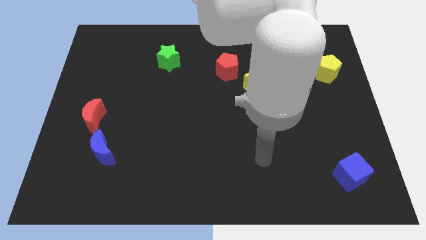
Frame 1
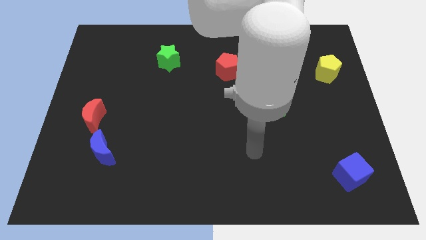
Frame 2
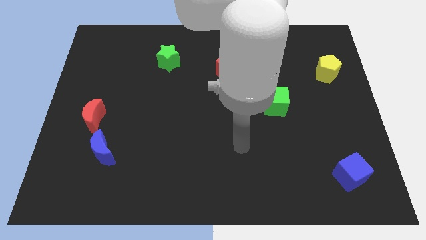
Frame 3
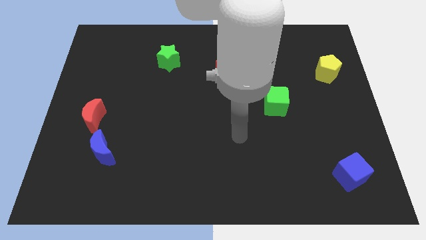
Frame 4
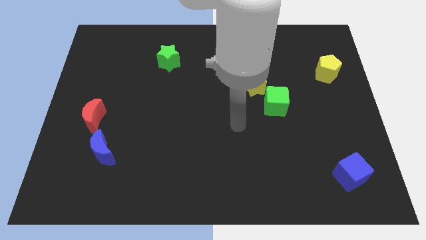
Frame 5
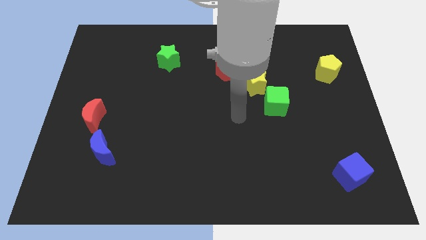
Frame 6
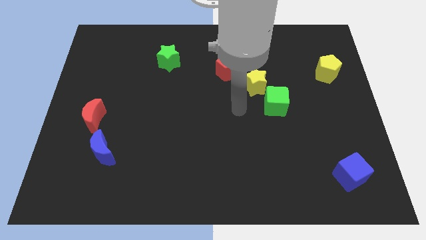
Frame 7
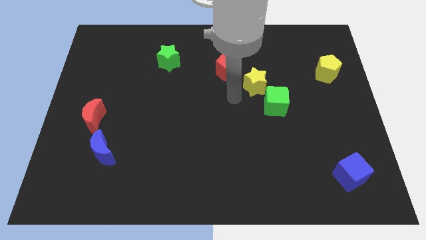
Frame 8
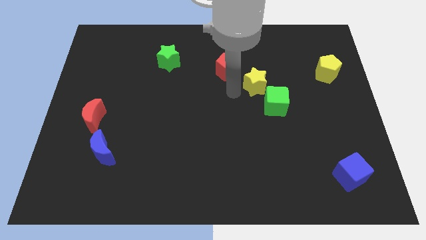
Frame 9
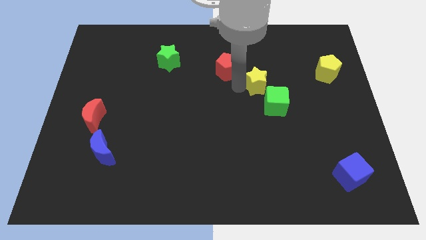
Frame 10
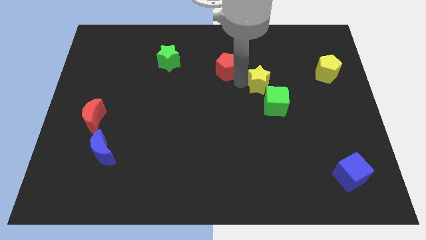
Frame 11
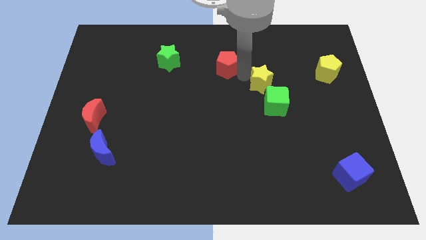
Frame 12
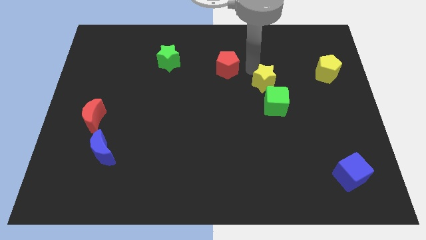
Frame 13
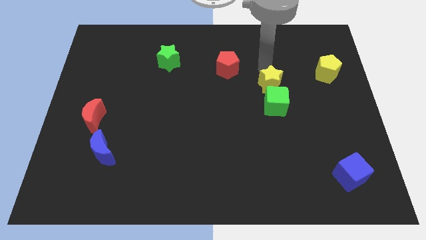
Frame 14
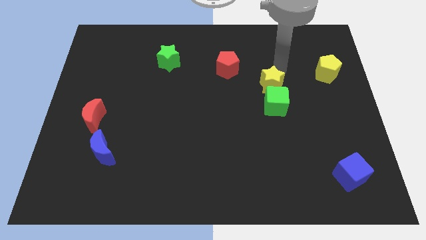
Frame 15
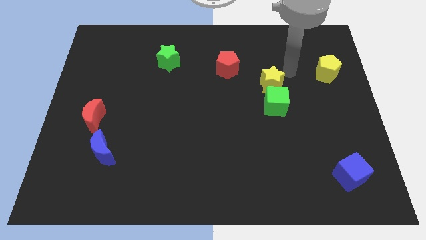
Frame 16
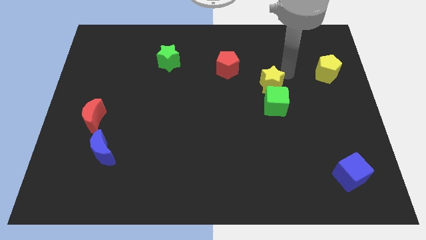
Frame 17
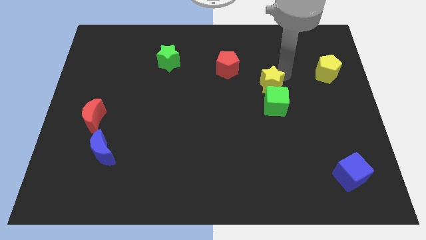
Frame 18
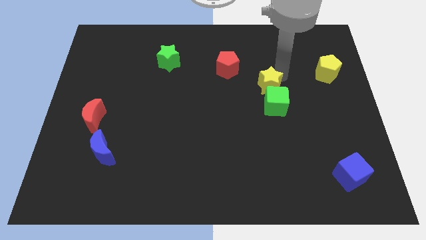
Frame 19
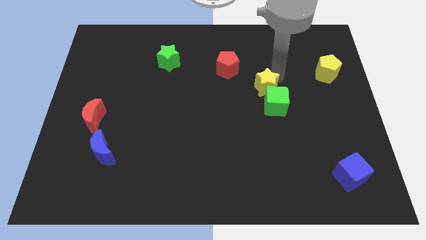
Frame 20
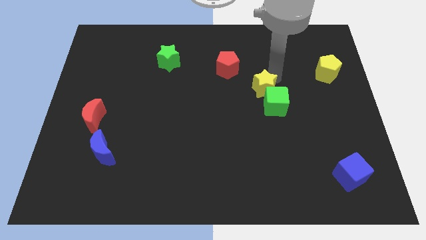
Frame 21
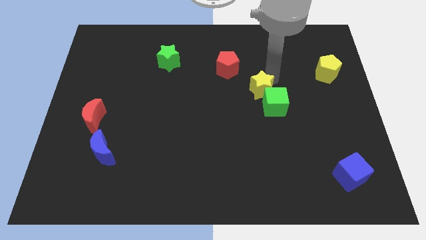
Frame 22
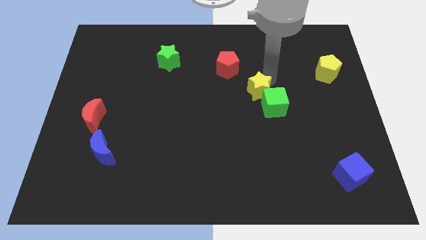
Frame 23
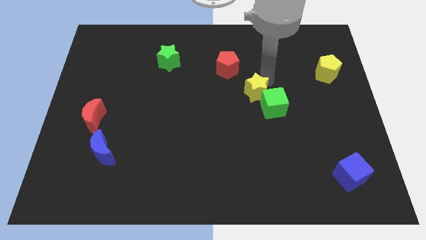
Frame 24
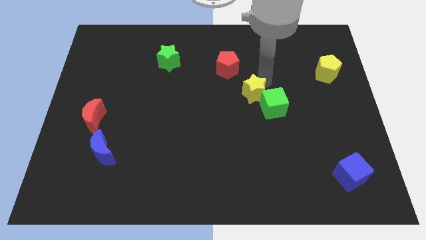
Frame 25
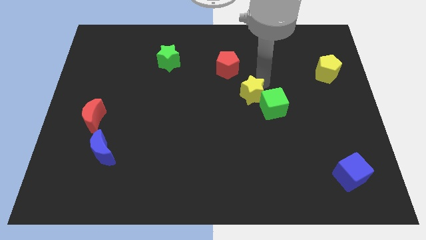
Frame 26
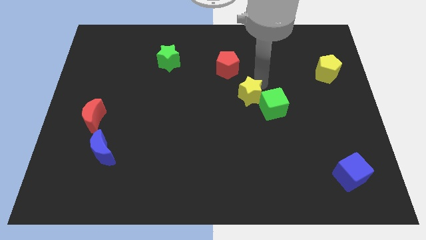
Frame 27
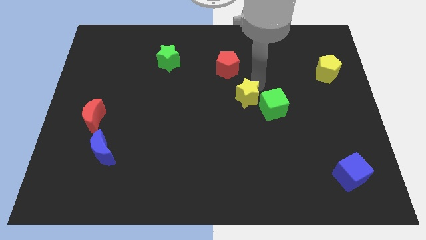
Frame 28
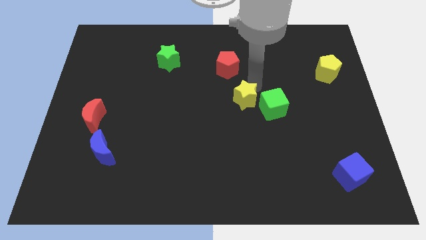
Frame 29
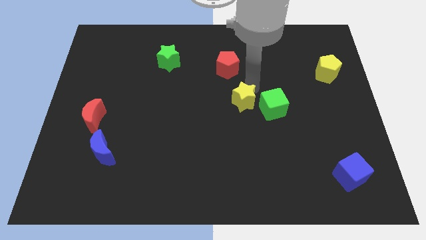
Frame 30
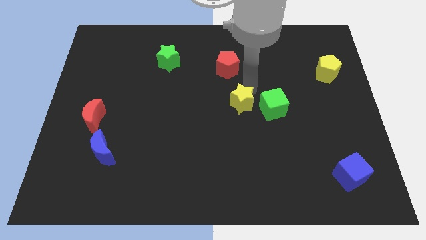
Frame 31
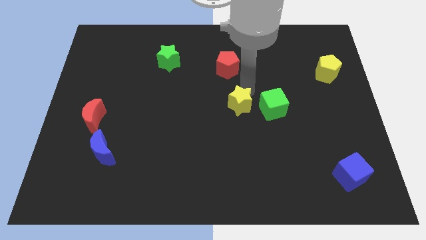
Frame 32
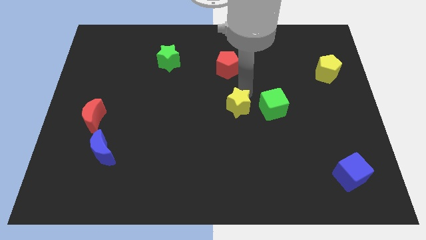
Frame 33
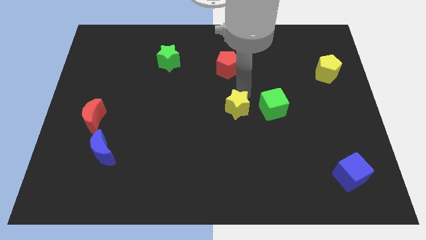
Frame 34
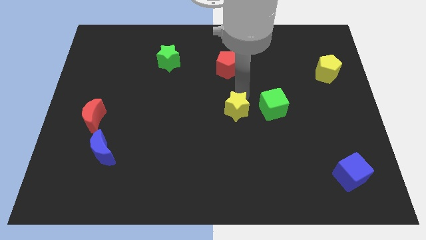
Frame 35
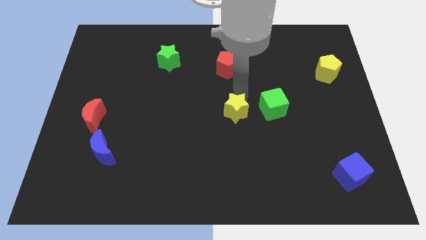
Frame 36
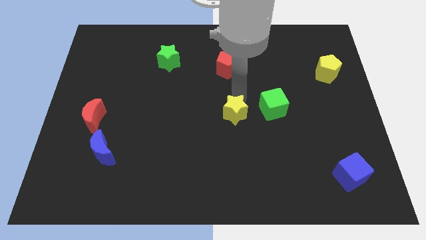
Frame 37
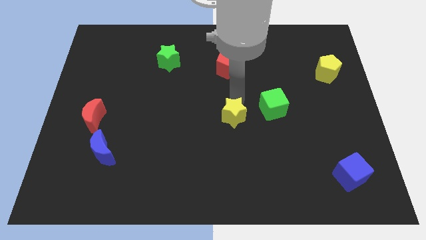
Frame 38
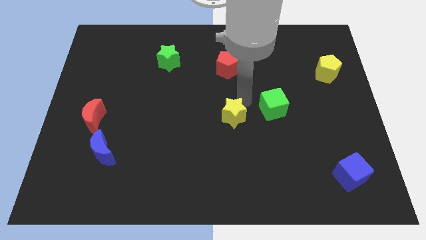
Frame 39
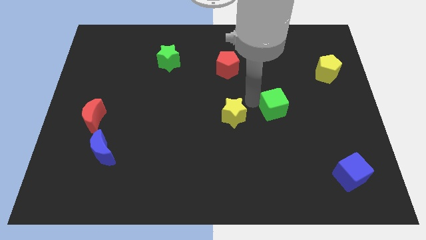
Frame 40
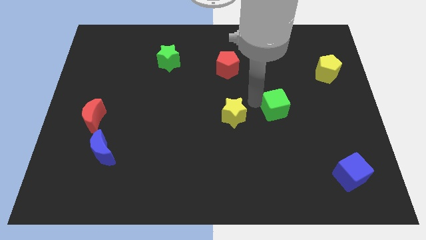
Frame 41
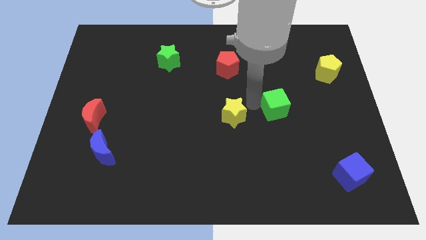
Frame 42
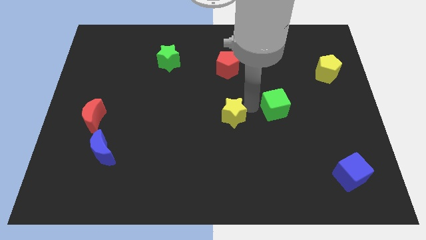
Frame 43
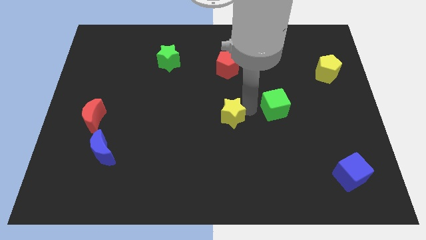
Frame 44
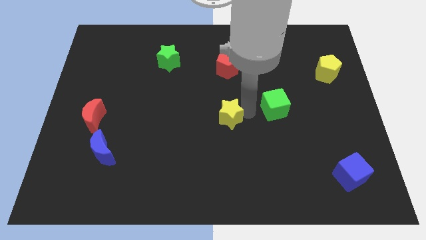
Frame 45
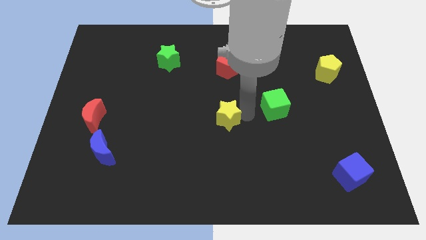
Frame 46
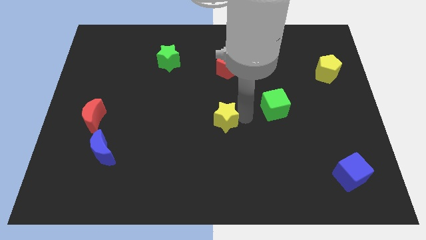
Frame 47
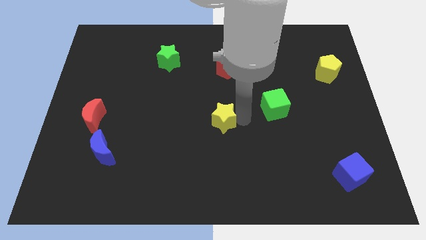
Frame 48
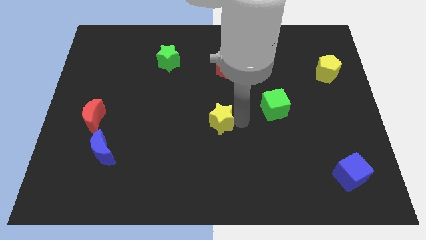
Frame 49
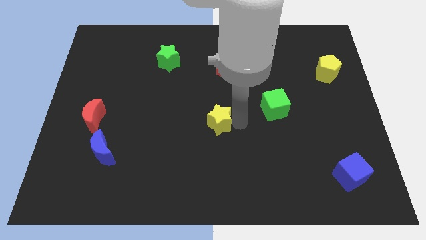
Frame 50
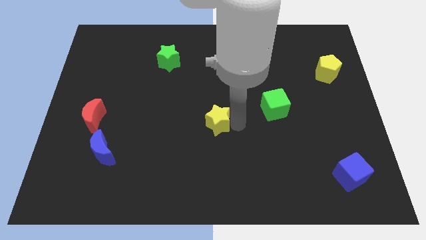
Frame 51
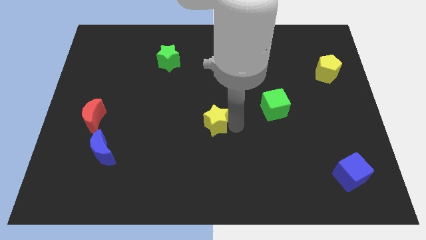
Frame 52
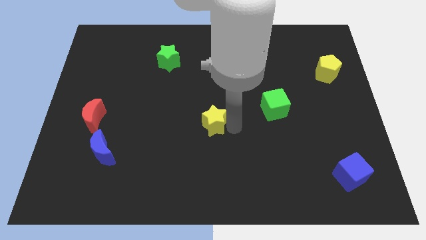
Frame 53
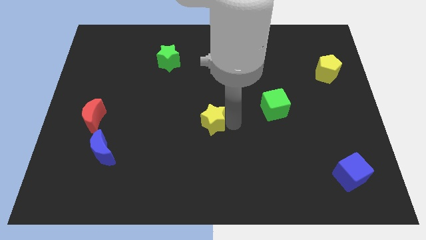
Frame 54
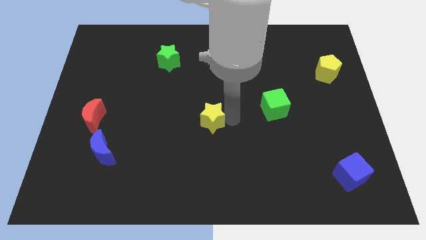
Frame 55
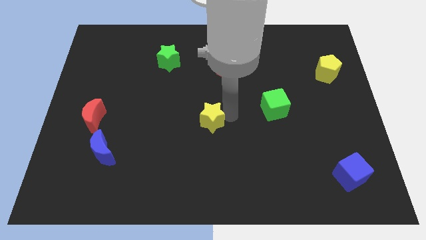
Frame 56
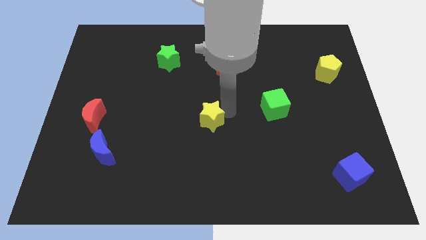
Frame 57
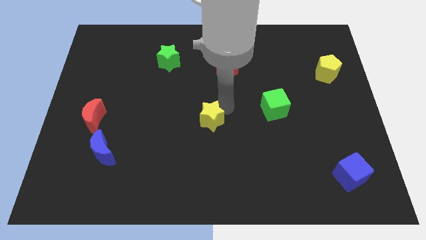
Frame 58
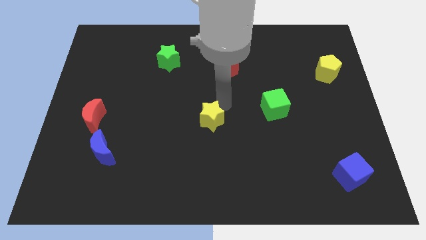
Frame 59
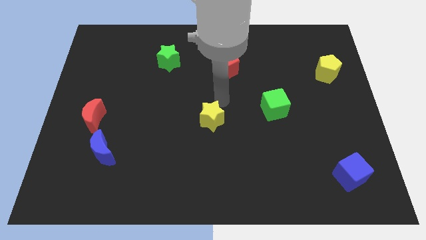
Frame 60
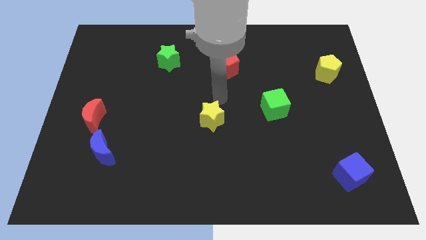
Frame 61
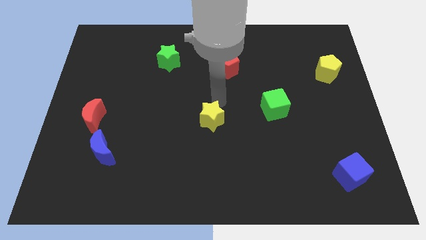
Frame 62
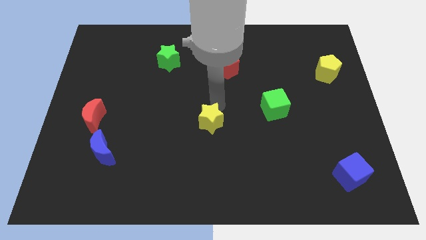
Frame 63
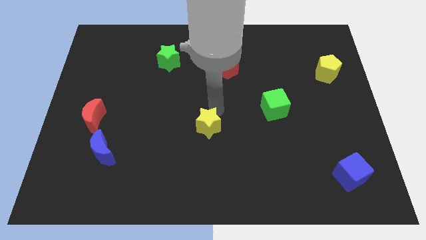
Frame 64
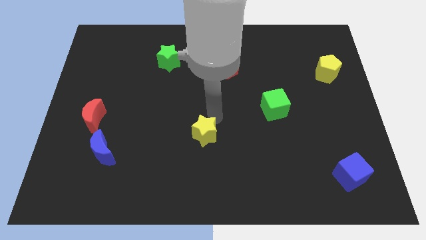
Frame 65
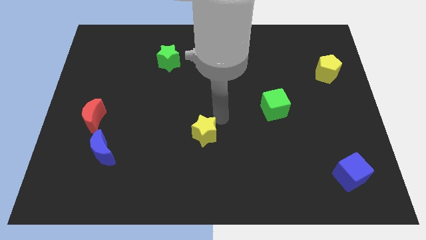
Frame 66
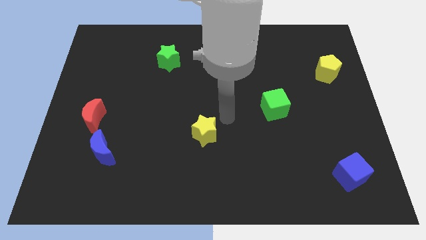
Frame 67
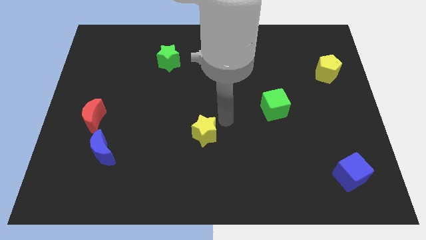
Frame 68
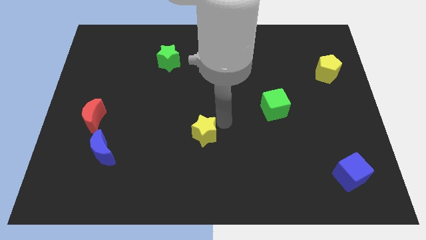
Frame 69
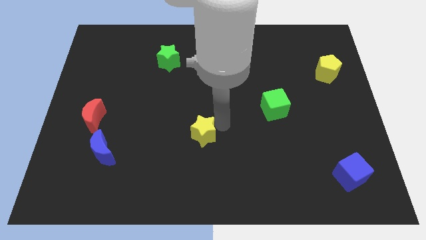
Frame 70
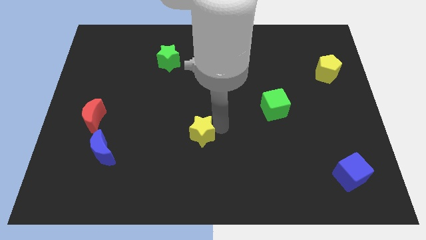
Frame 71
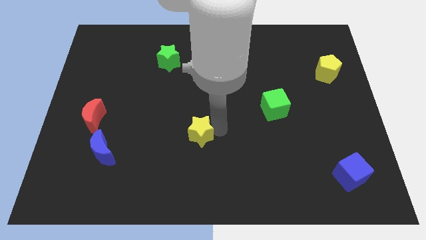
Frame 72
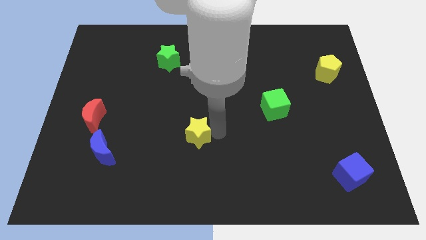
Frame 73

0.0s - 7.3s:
push the yellow star down and to the left diagonally

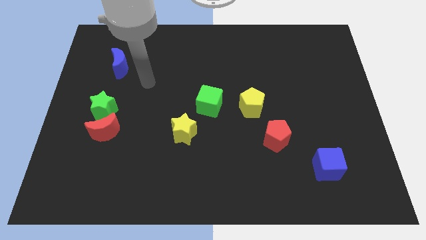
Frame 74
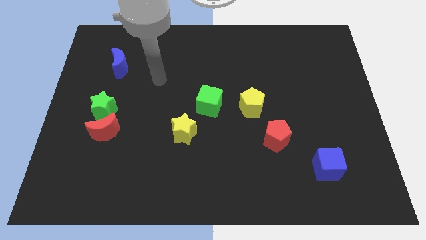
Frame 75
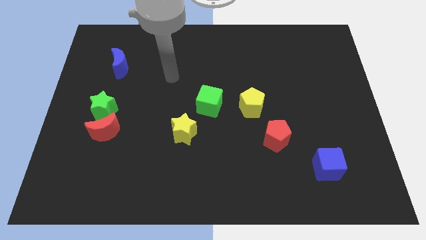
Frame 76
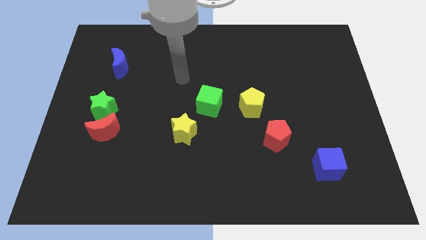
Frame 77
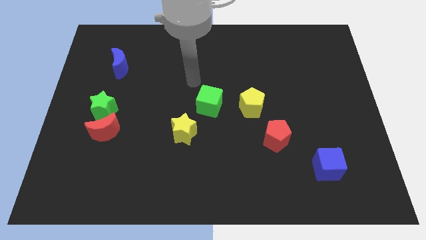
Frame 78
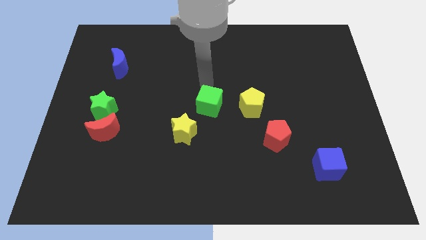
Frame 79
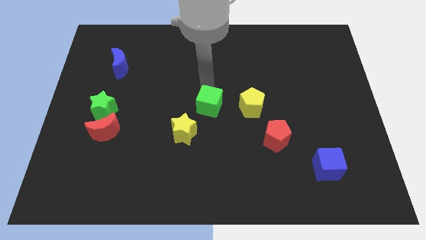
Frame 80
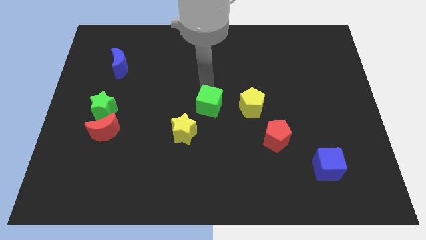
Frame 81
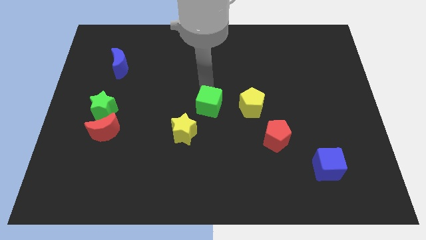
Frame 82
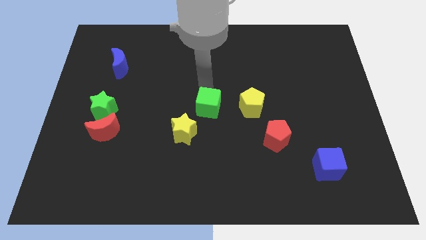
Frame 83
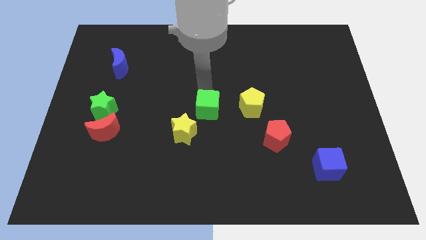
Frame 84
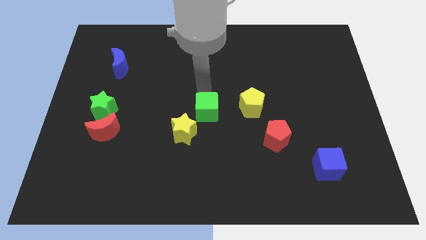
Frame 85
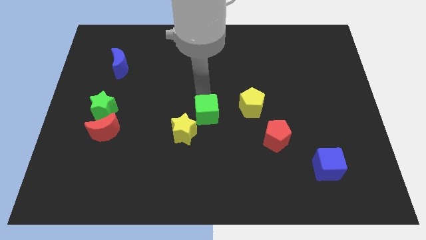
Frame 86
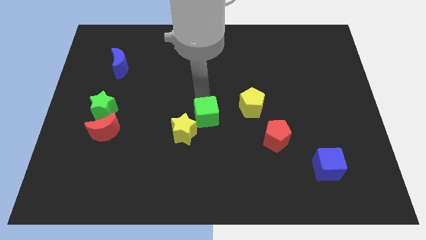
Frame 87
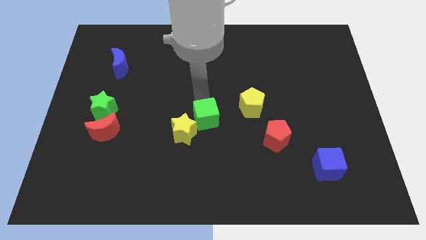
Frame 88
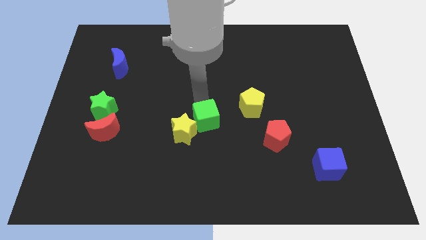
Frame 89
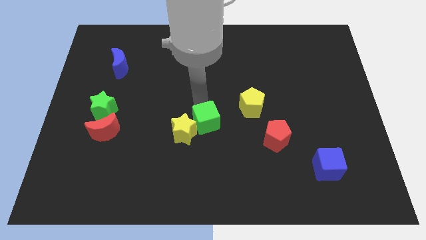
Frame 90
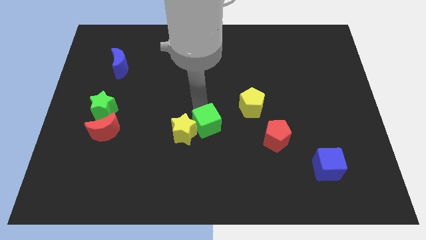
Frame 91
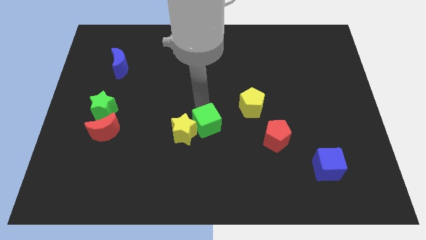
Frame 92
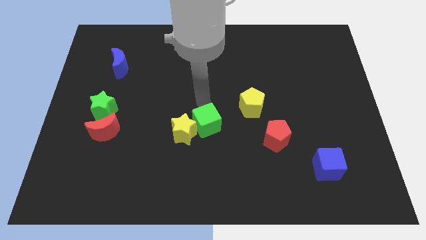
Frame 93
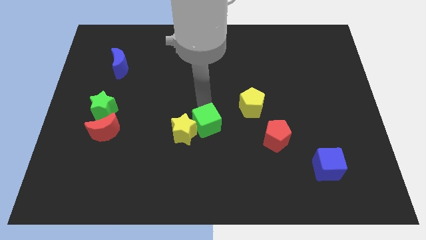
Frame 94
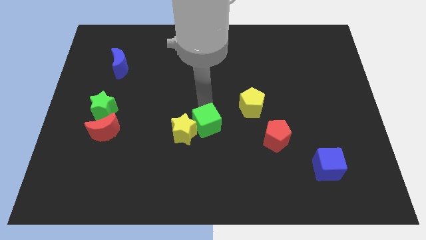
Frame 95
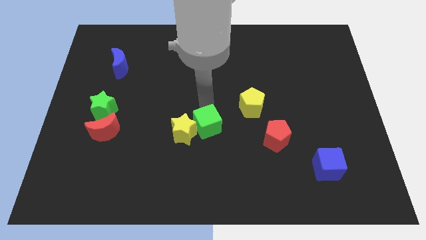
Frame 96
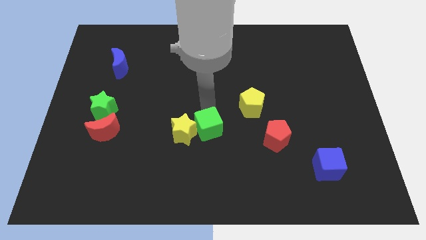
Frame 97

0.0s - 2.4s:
move the green cube somewhat downwards
